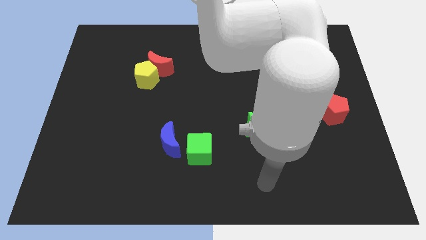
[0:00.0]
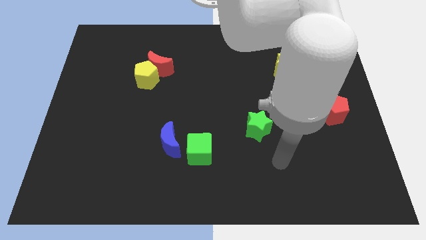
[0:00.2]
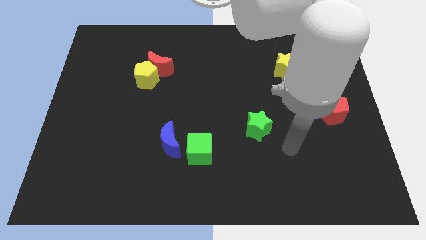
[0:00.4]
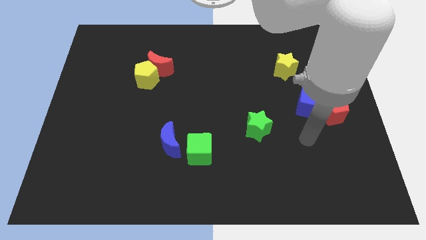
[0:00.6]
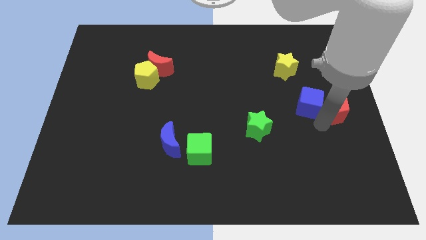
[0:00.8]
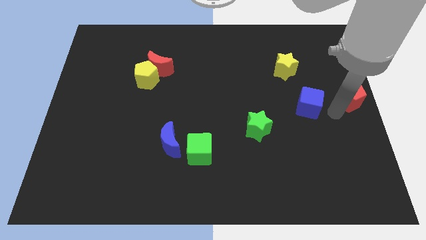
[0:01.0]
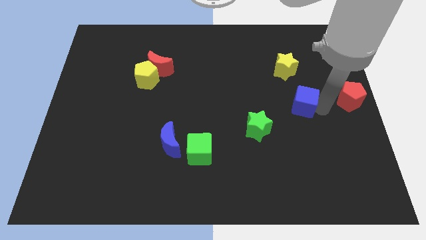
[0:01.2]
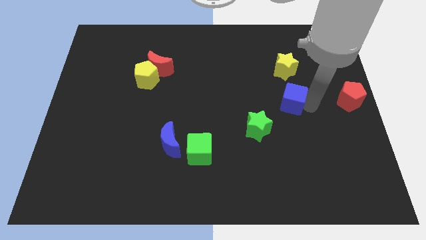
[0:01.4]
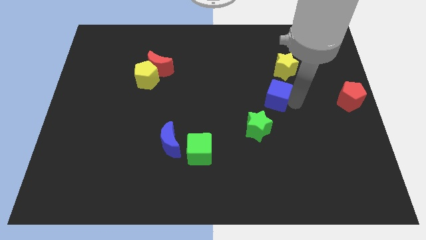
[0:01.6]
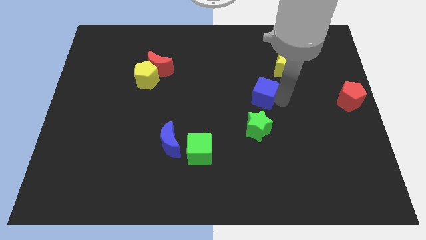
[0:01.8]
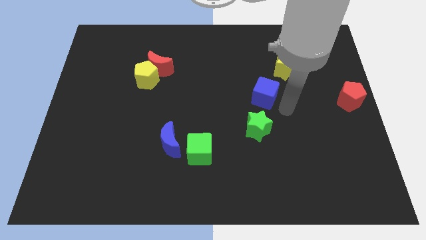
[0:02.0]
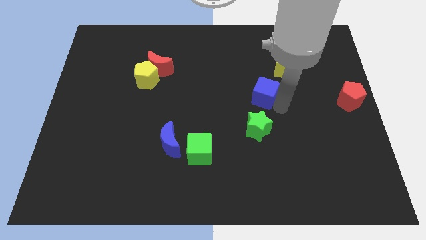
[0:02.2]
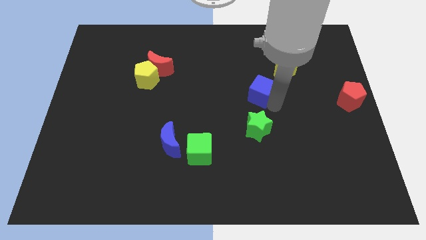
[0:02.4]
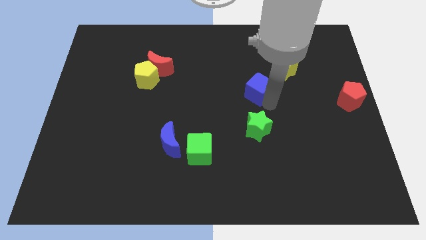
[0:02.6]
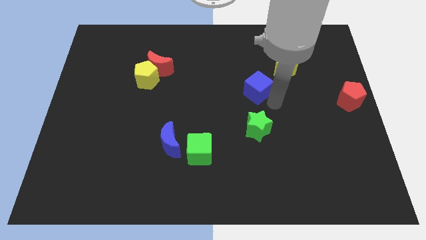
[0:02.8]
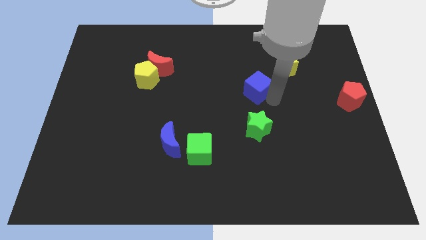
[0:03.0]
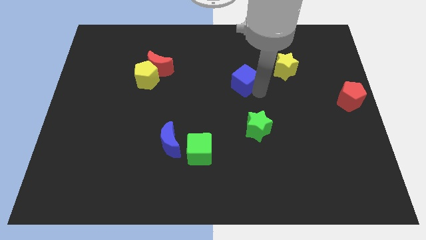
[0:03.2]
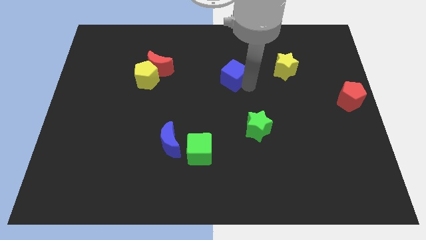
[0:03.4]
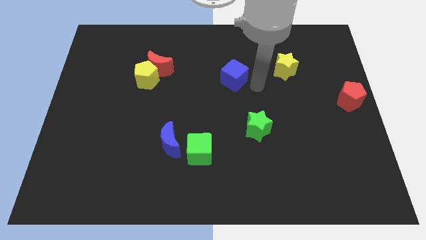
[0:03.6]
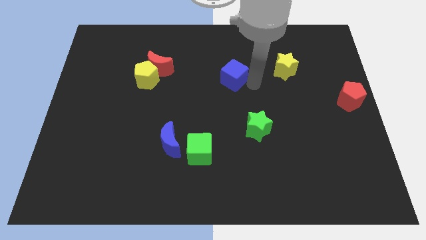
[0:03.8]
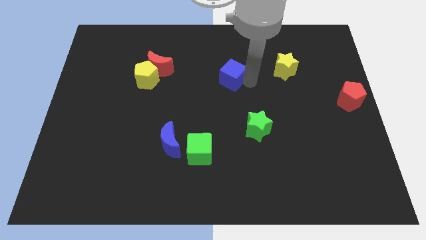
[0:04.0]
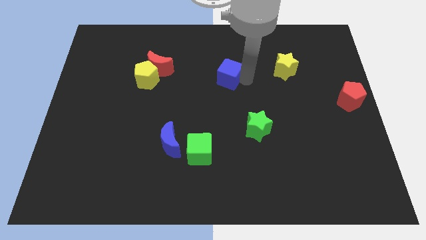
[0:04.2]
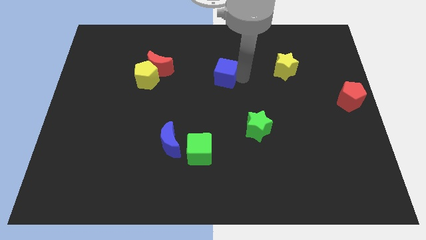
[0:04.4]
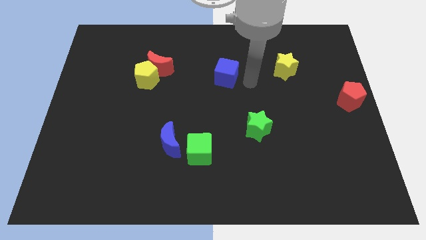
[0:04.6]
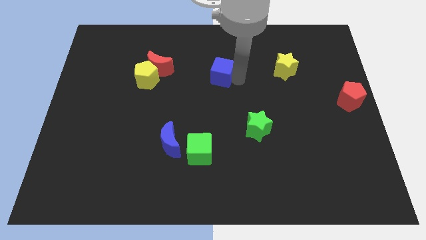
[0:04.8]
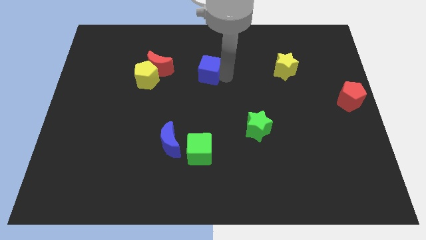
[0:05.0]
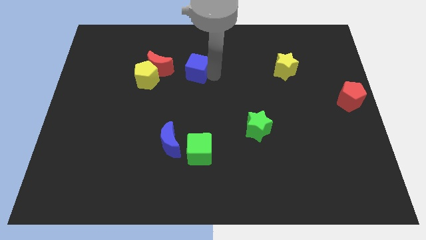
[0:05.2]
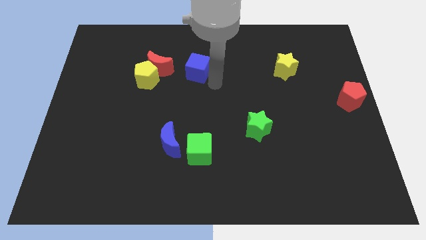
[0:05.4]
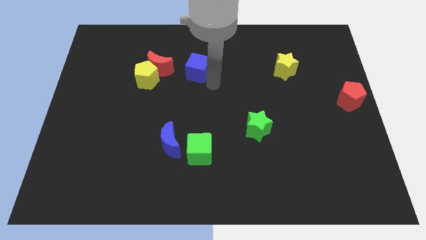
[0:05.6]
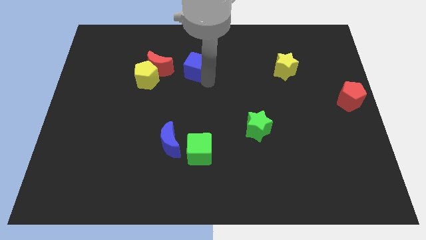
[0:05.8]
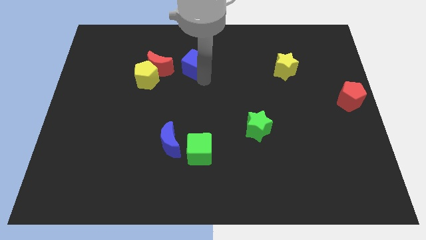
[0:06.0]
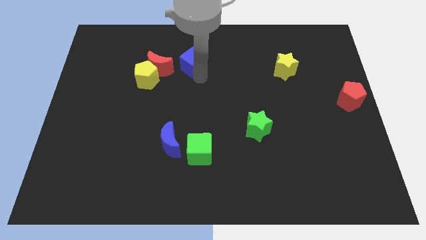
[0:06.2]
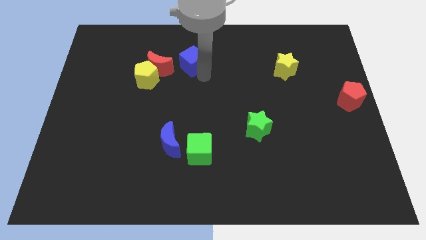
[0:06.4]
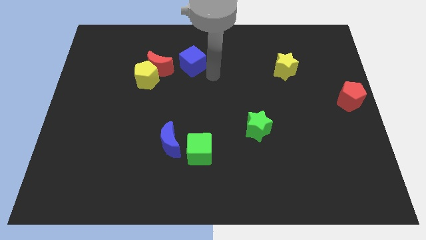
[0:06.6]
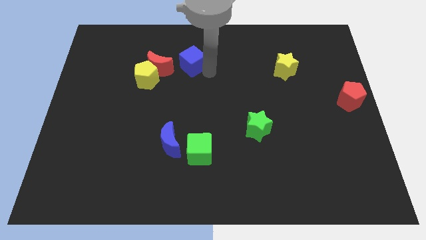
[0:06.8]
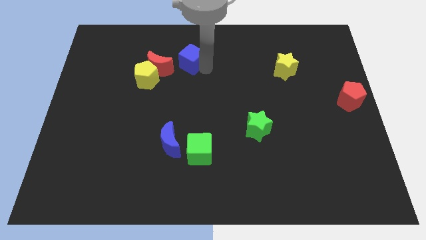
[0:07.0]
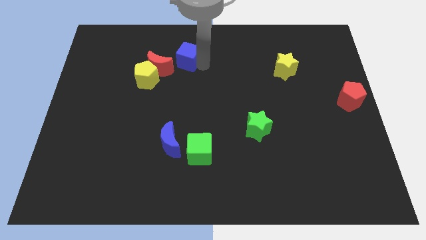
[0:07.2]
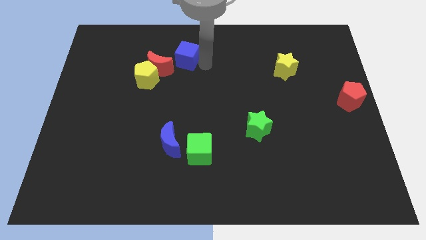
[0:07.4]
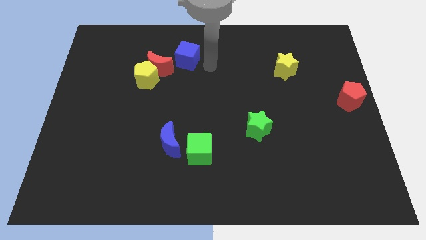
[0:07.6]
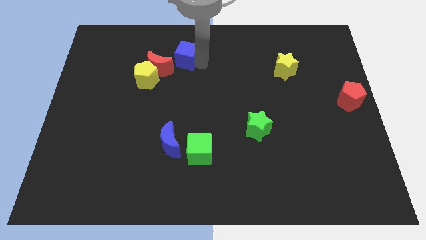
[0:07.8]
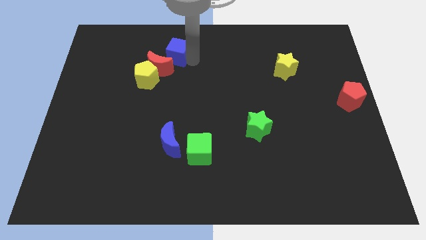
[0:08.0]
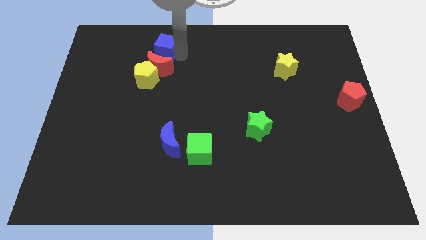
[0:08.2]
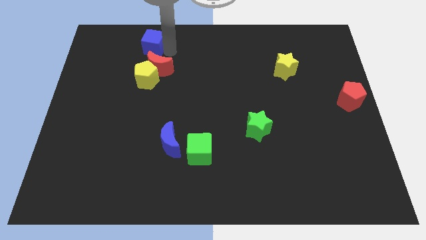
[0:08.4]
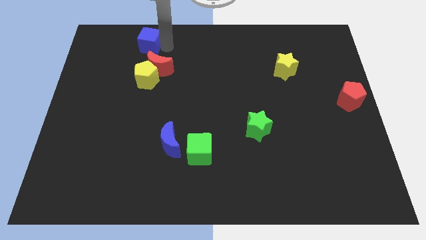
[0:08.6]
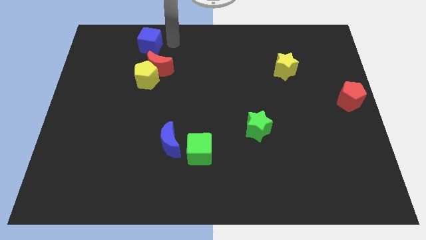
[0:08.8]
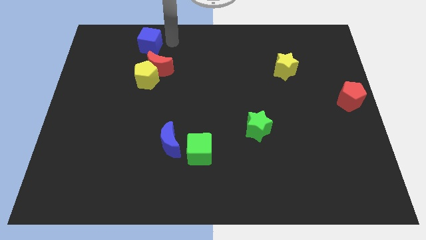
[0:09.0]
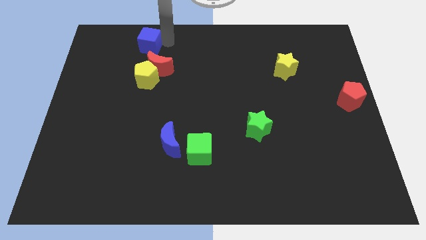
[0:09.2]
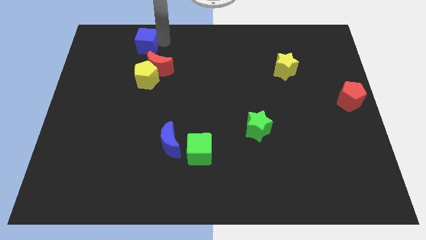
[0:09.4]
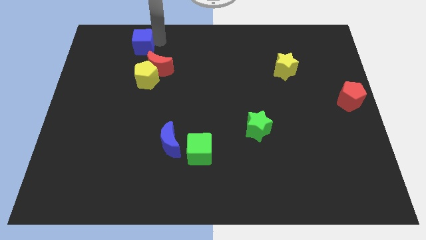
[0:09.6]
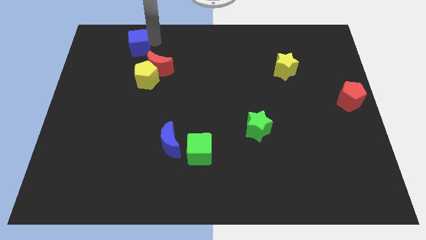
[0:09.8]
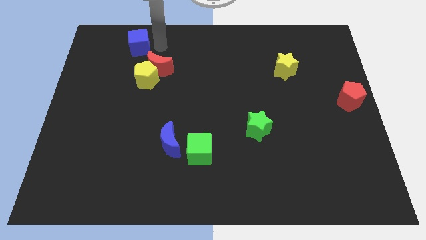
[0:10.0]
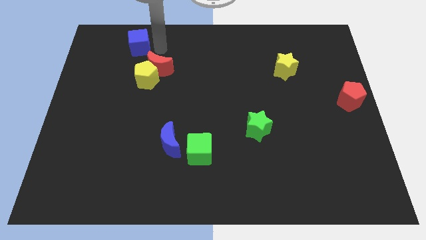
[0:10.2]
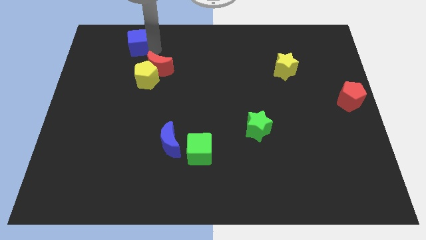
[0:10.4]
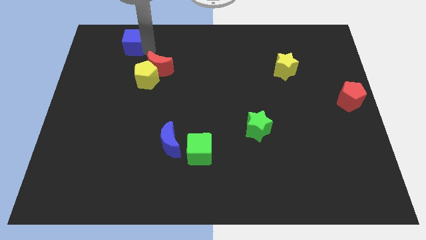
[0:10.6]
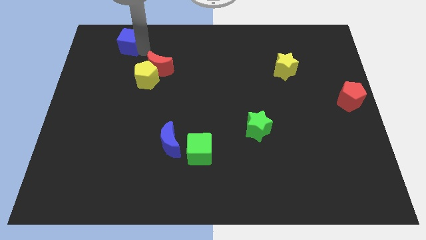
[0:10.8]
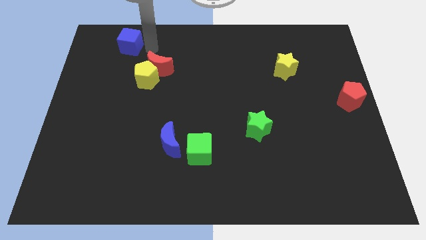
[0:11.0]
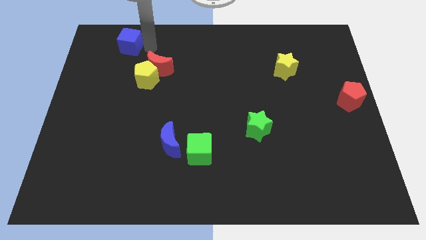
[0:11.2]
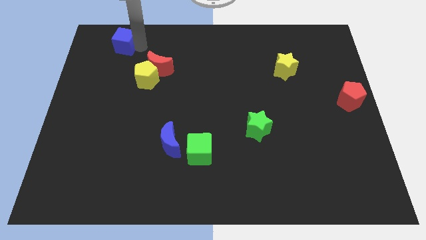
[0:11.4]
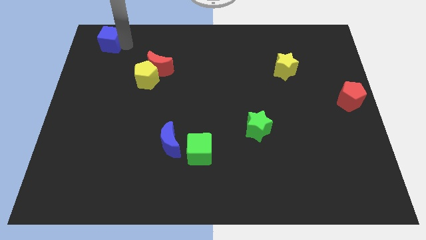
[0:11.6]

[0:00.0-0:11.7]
put the blue cube to the top left corner
